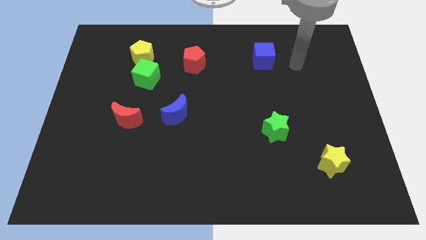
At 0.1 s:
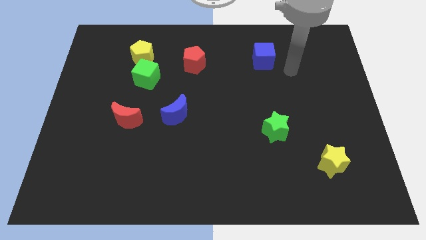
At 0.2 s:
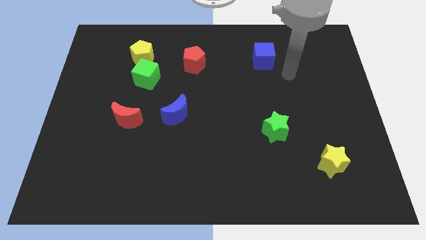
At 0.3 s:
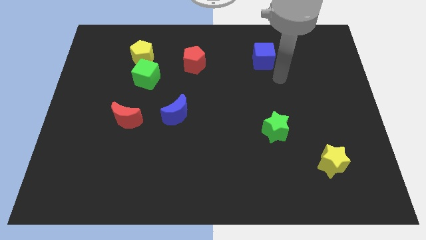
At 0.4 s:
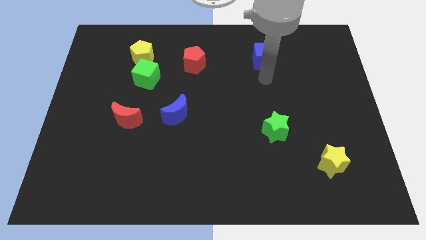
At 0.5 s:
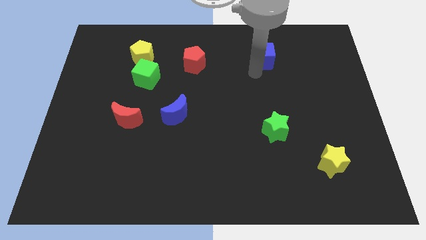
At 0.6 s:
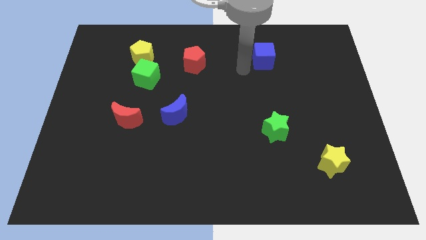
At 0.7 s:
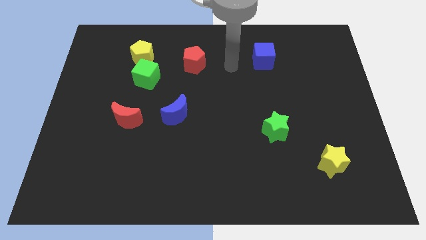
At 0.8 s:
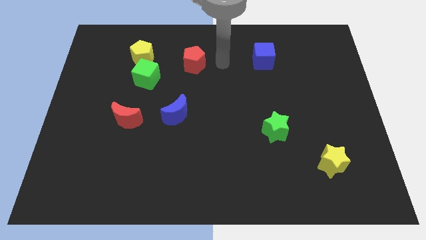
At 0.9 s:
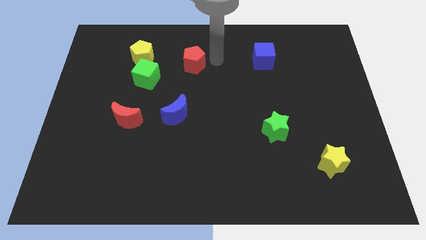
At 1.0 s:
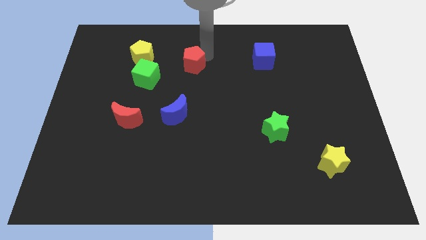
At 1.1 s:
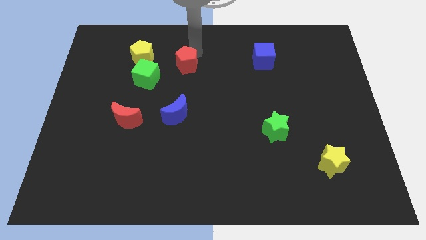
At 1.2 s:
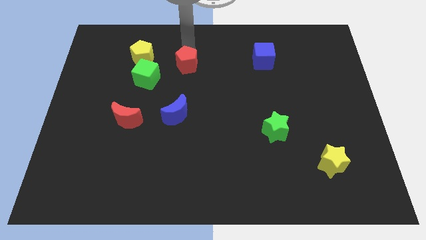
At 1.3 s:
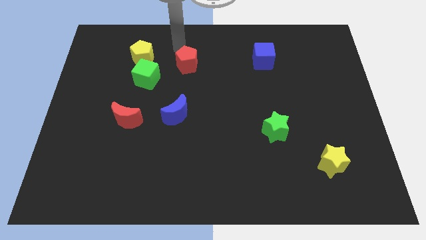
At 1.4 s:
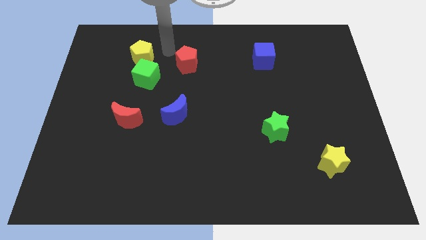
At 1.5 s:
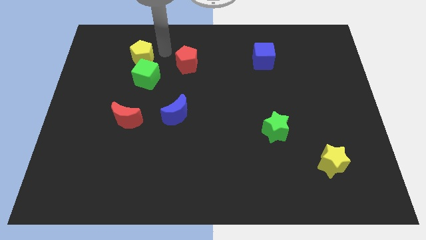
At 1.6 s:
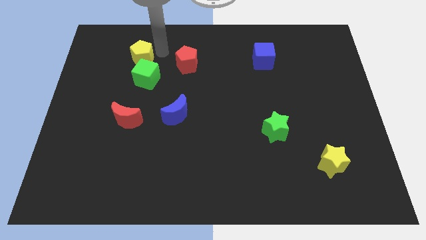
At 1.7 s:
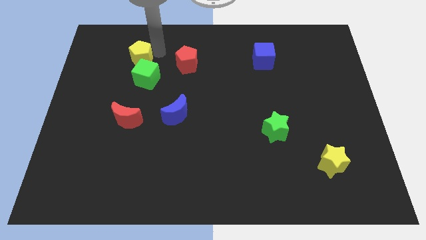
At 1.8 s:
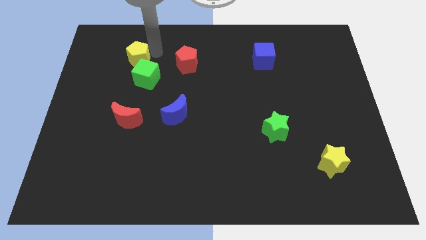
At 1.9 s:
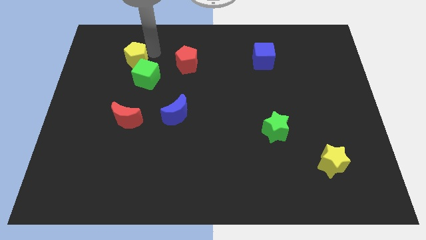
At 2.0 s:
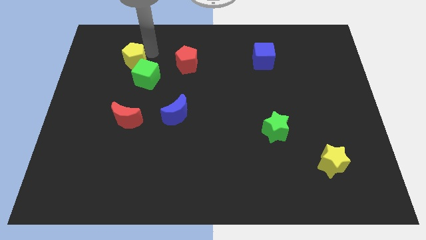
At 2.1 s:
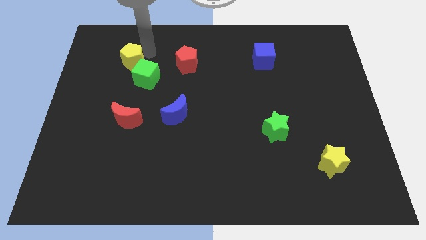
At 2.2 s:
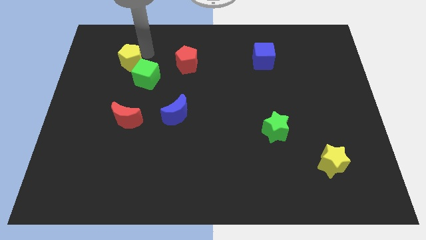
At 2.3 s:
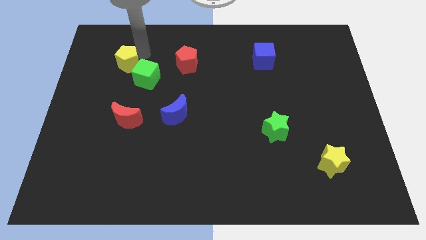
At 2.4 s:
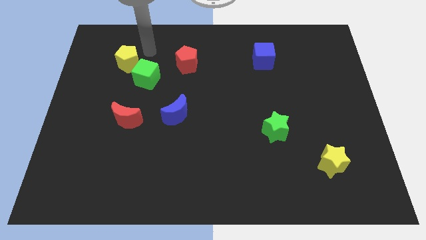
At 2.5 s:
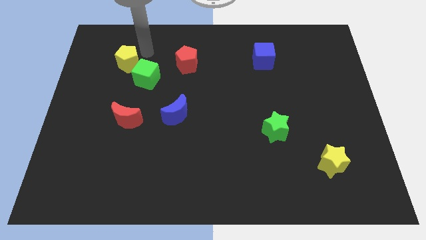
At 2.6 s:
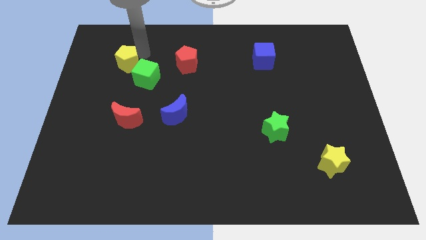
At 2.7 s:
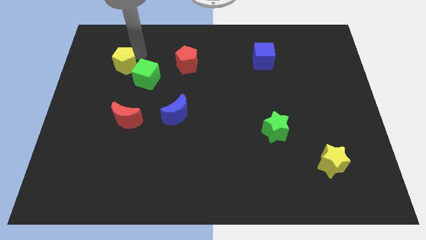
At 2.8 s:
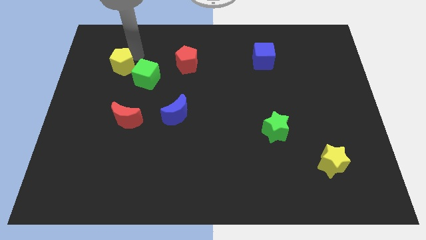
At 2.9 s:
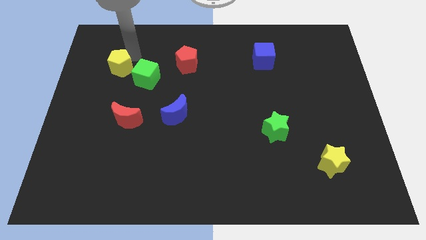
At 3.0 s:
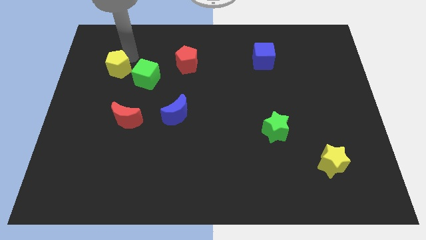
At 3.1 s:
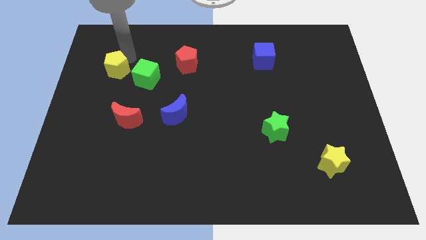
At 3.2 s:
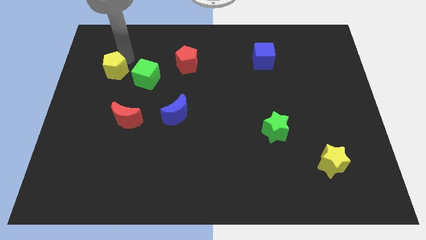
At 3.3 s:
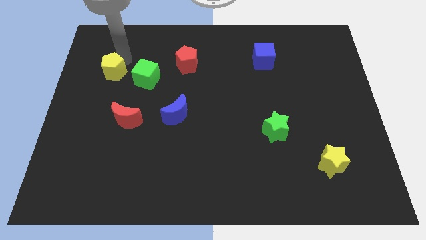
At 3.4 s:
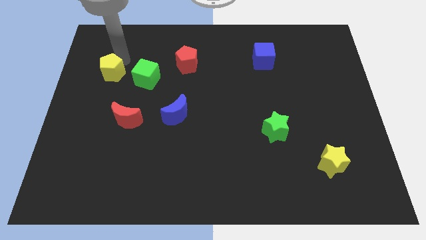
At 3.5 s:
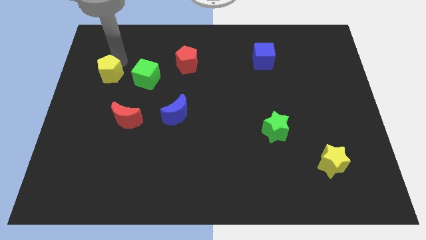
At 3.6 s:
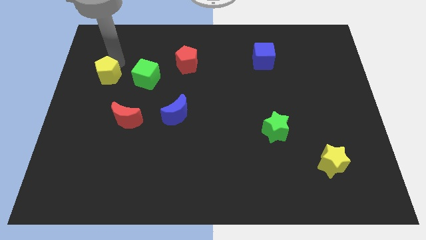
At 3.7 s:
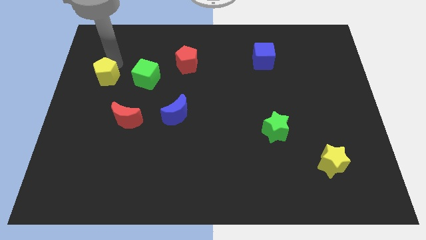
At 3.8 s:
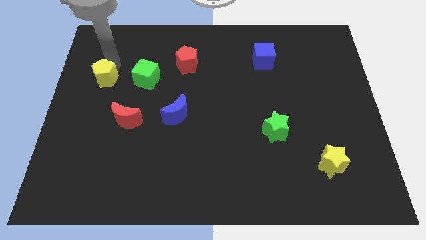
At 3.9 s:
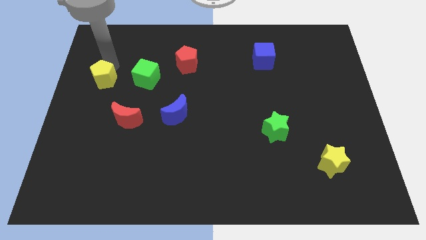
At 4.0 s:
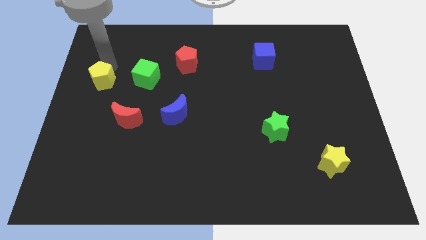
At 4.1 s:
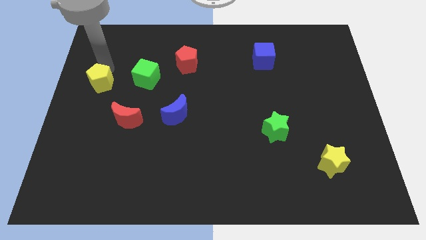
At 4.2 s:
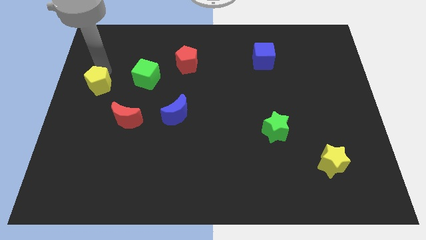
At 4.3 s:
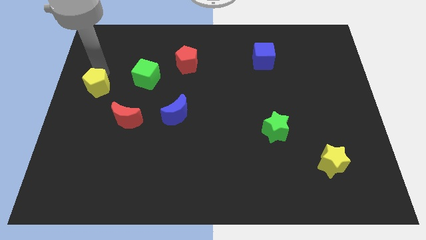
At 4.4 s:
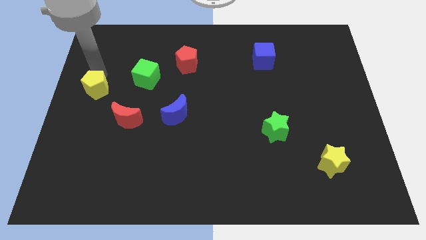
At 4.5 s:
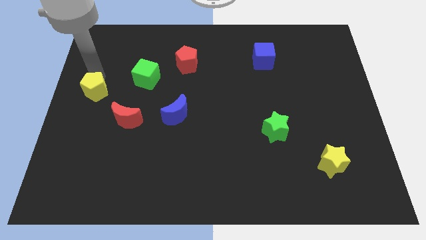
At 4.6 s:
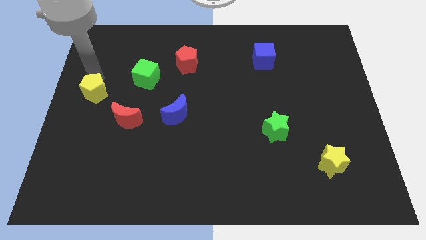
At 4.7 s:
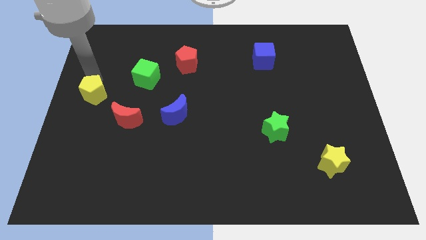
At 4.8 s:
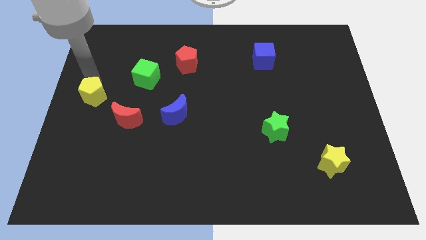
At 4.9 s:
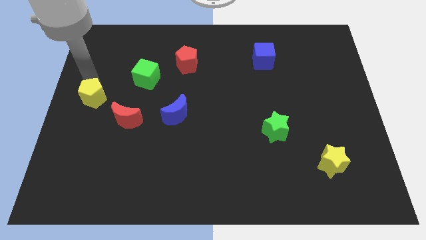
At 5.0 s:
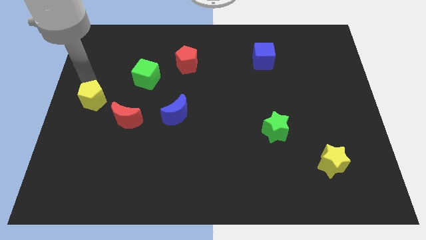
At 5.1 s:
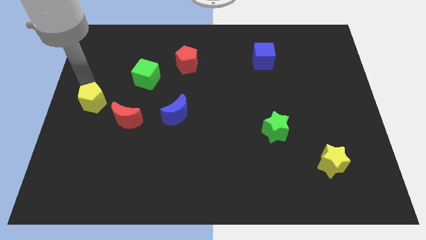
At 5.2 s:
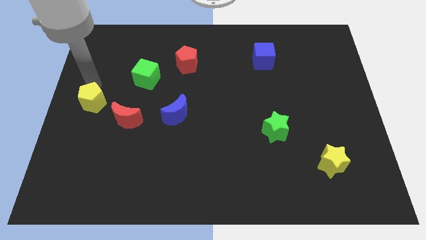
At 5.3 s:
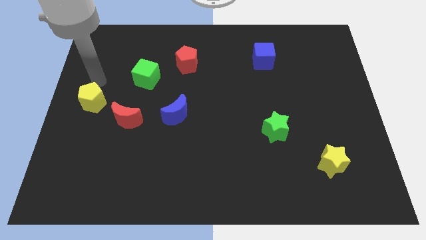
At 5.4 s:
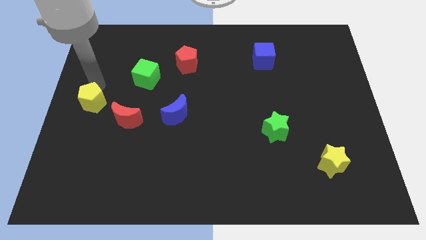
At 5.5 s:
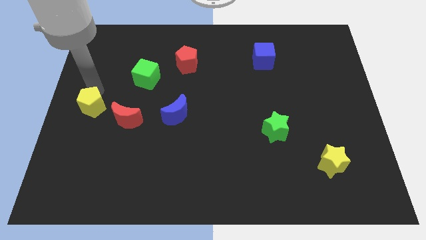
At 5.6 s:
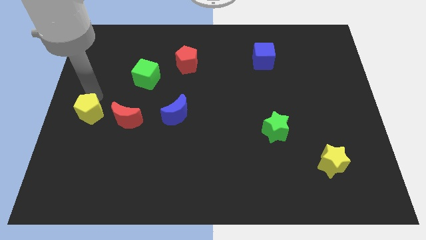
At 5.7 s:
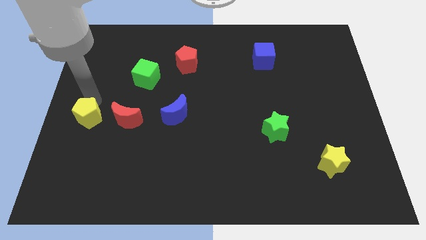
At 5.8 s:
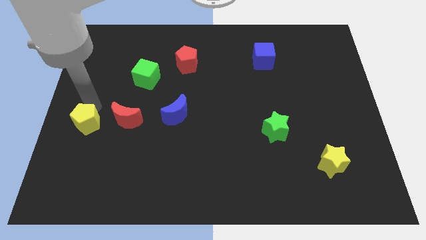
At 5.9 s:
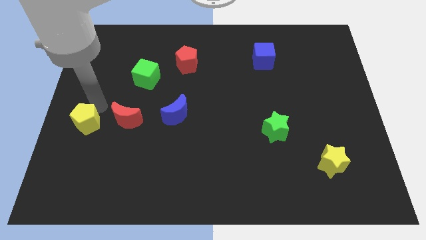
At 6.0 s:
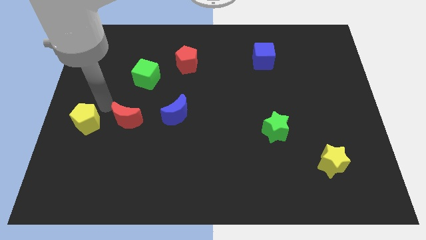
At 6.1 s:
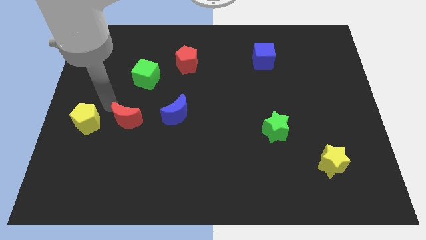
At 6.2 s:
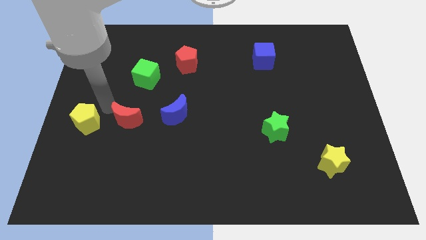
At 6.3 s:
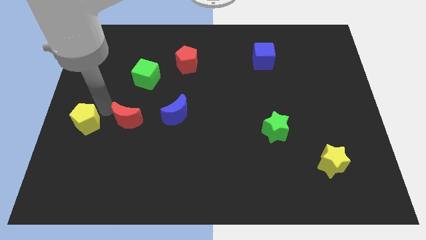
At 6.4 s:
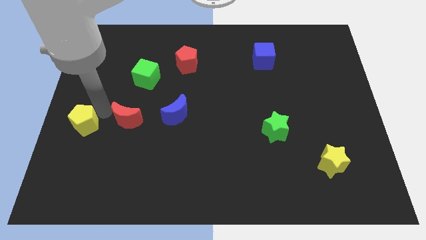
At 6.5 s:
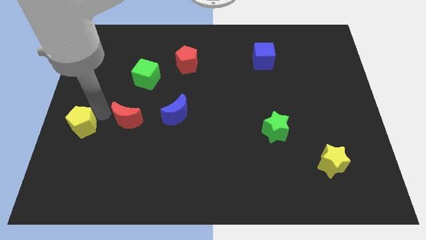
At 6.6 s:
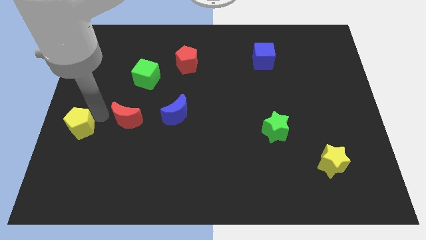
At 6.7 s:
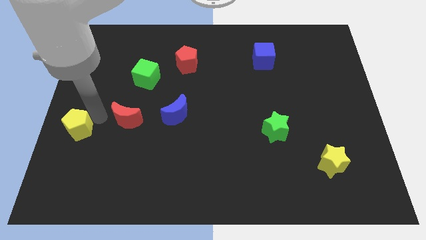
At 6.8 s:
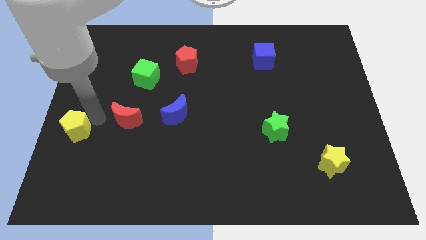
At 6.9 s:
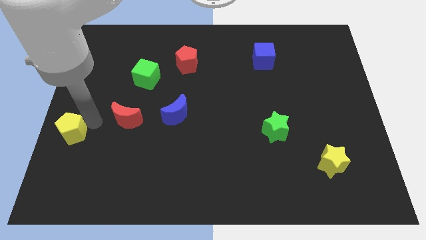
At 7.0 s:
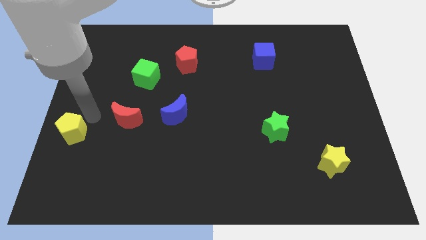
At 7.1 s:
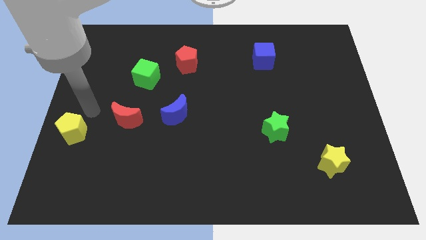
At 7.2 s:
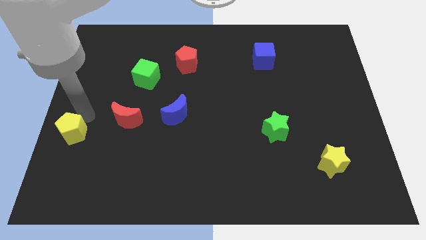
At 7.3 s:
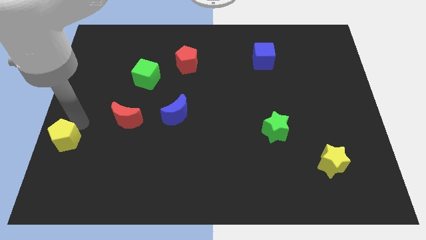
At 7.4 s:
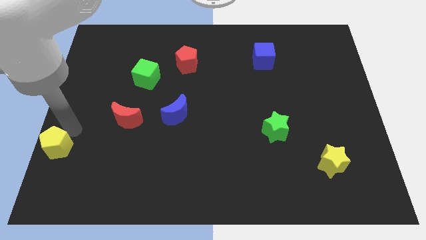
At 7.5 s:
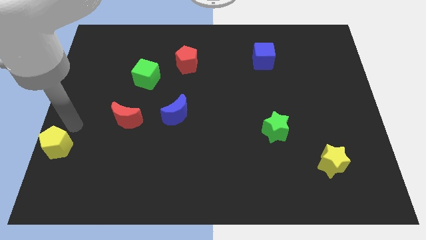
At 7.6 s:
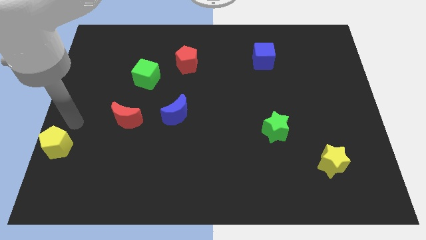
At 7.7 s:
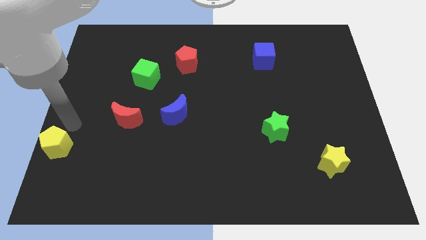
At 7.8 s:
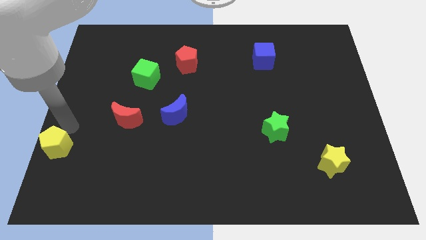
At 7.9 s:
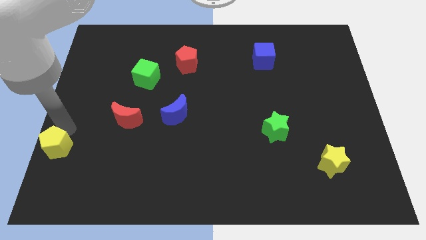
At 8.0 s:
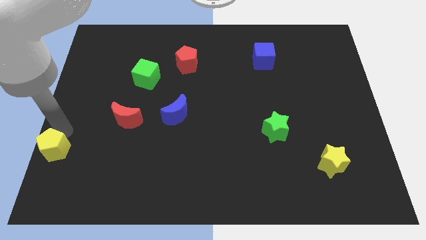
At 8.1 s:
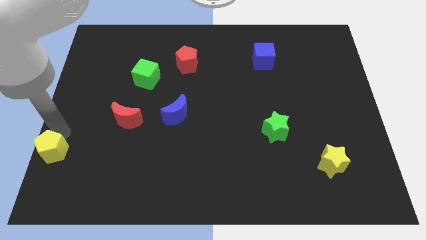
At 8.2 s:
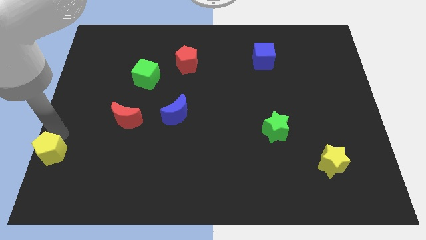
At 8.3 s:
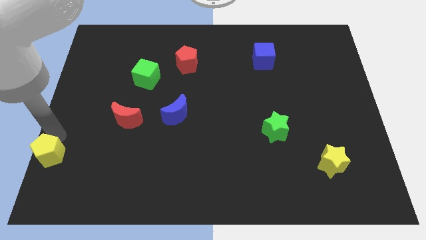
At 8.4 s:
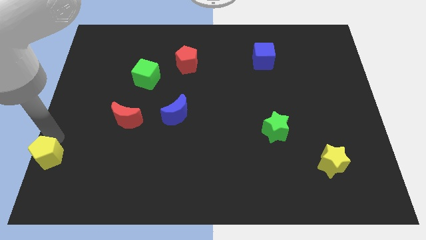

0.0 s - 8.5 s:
push the yellow pentagon to the bottom left
